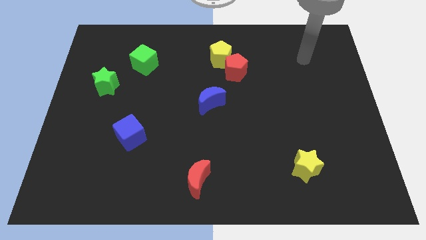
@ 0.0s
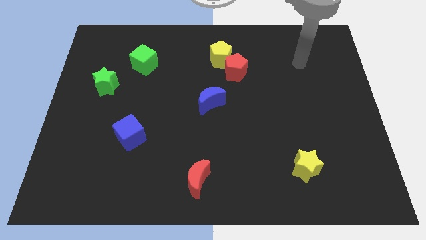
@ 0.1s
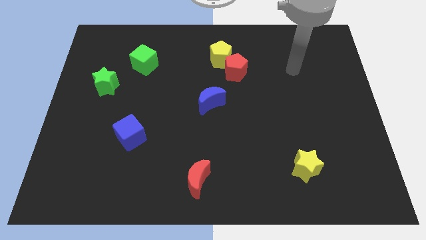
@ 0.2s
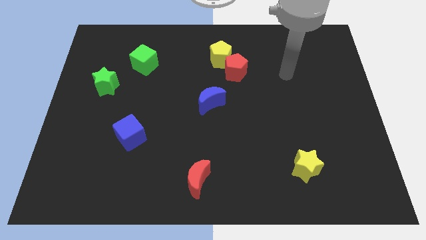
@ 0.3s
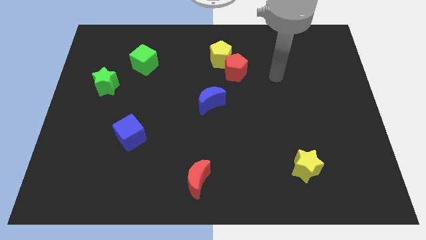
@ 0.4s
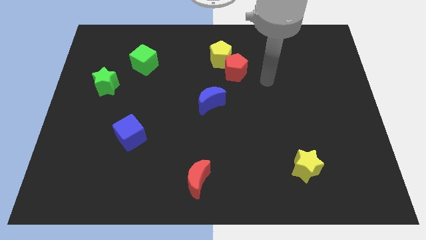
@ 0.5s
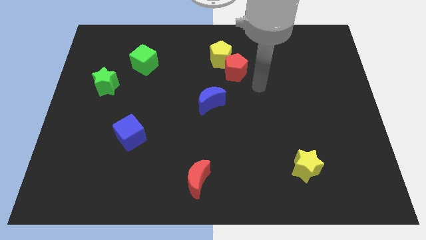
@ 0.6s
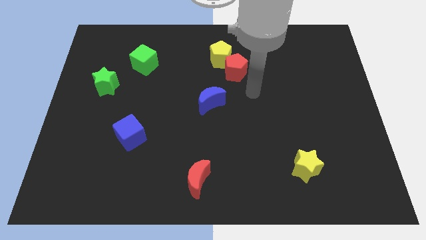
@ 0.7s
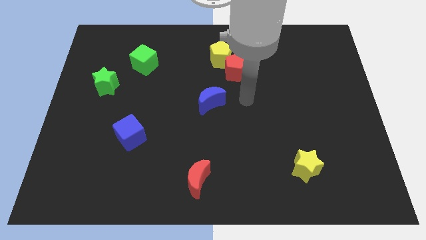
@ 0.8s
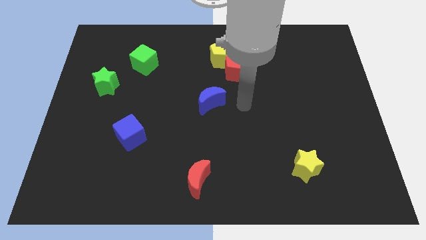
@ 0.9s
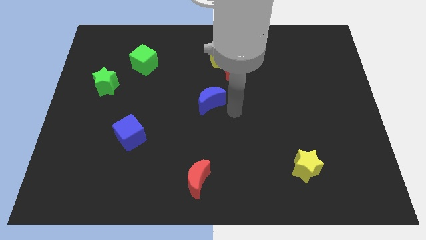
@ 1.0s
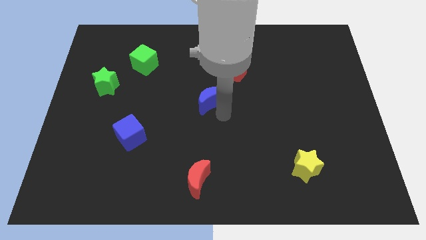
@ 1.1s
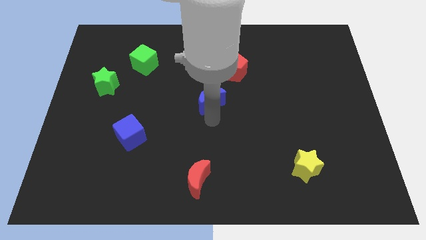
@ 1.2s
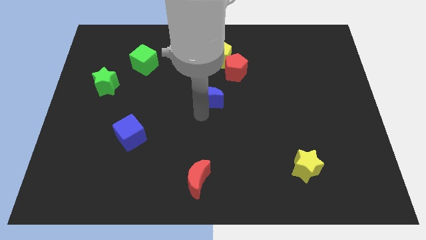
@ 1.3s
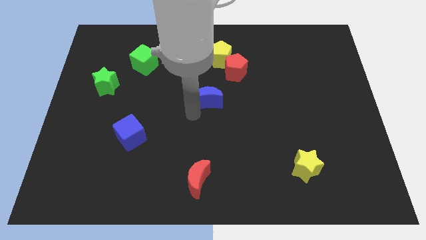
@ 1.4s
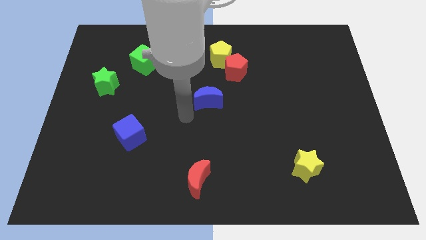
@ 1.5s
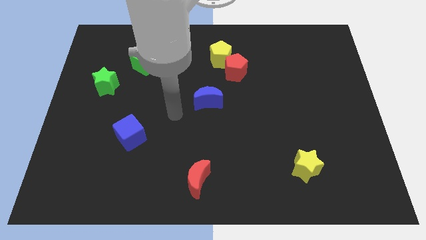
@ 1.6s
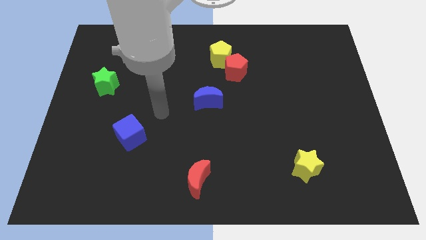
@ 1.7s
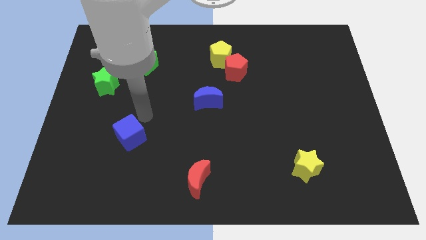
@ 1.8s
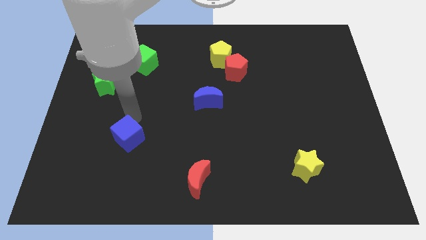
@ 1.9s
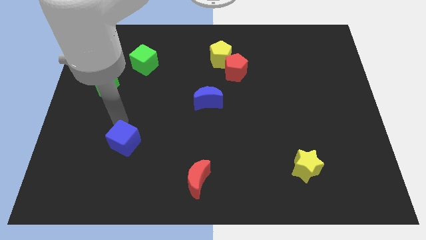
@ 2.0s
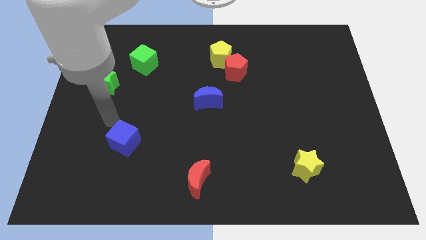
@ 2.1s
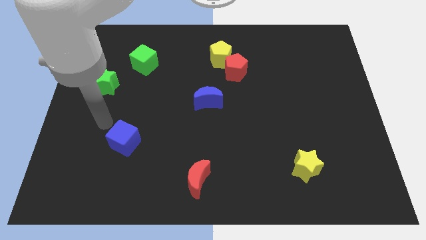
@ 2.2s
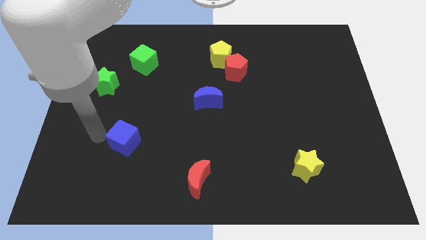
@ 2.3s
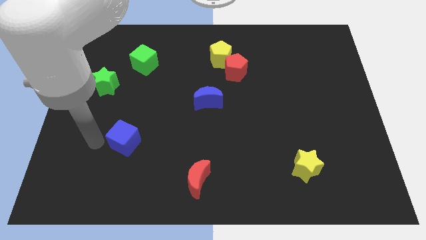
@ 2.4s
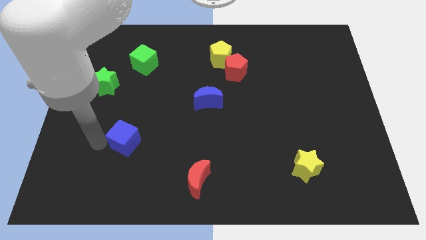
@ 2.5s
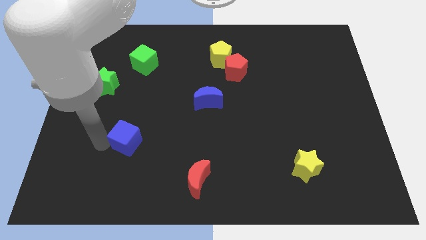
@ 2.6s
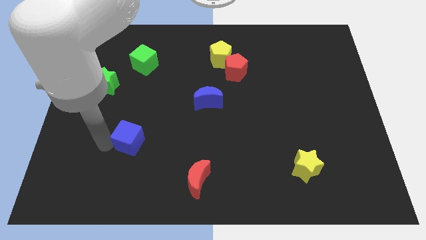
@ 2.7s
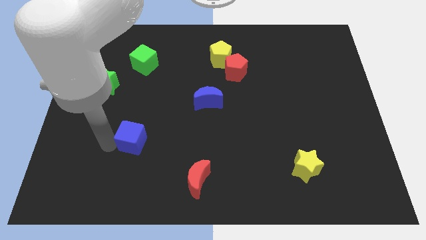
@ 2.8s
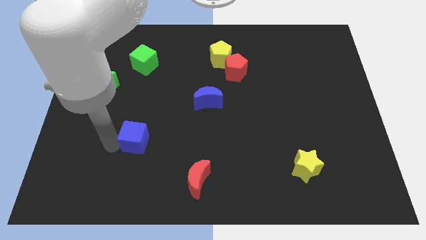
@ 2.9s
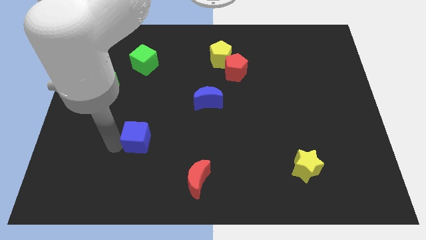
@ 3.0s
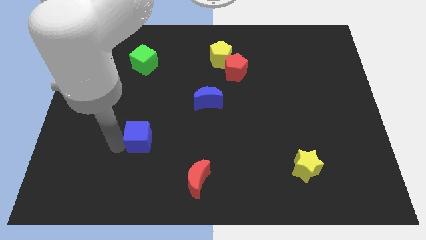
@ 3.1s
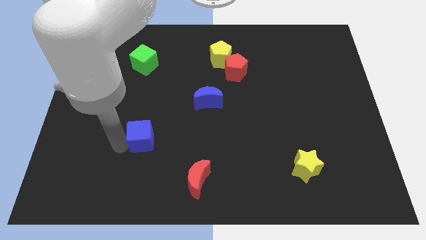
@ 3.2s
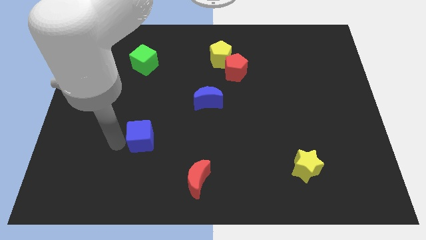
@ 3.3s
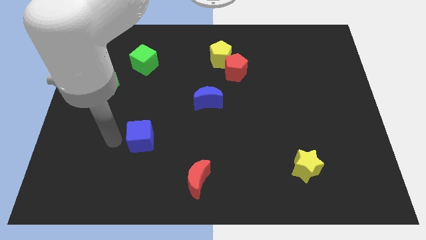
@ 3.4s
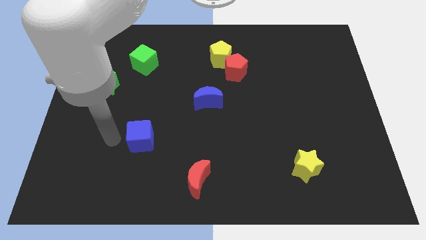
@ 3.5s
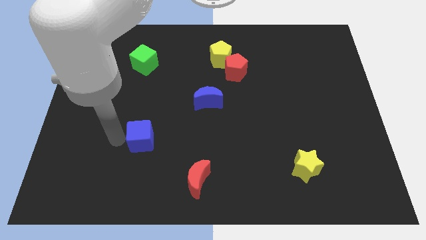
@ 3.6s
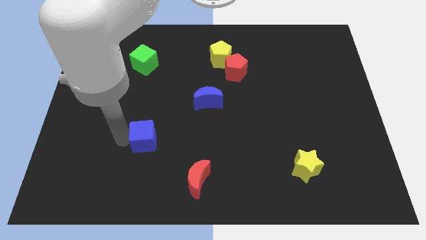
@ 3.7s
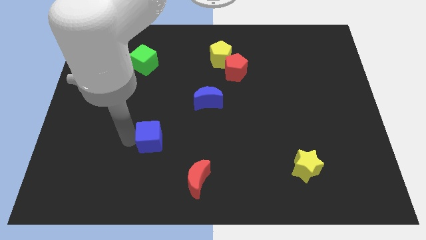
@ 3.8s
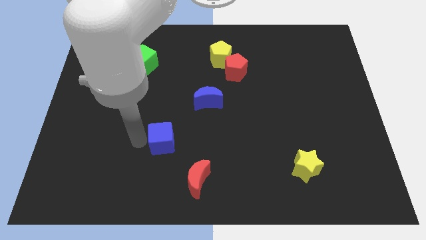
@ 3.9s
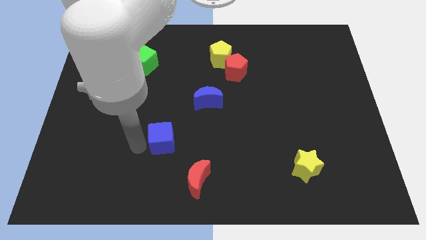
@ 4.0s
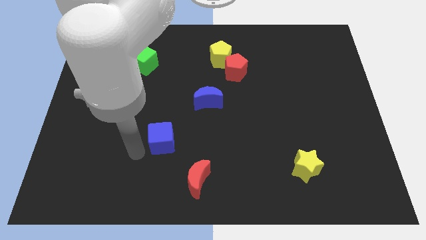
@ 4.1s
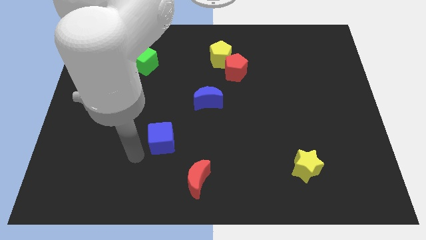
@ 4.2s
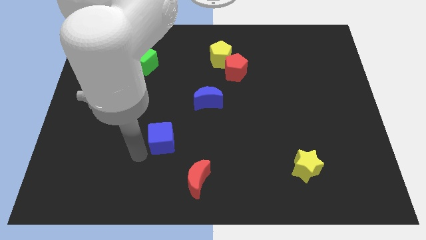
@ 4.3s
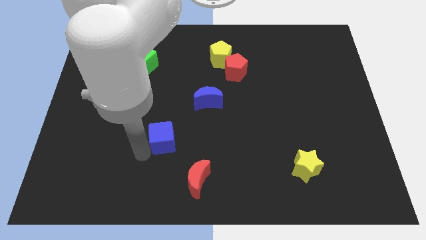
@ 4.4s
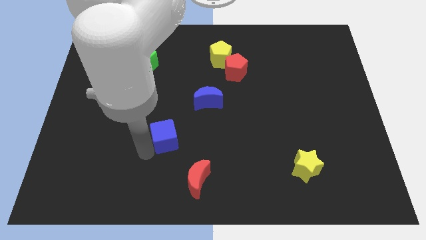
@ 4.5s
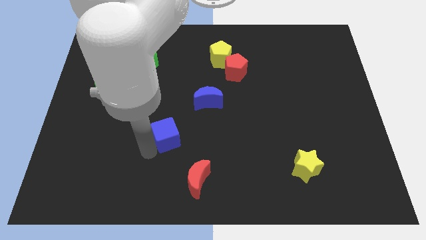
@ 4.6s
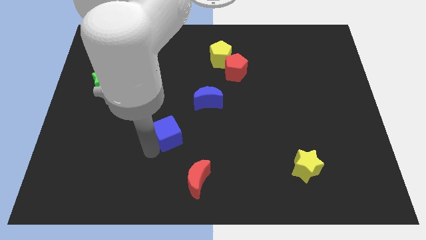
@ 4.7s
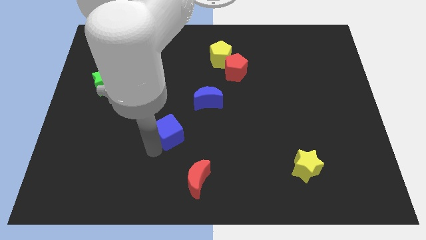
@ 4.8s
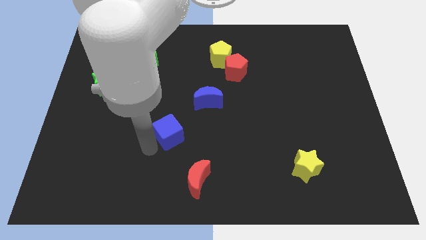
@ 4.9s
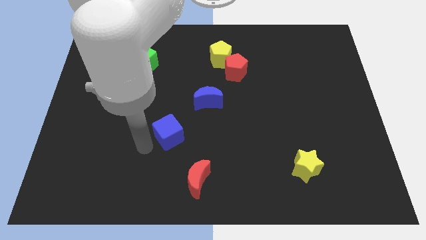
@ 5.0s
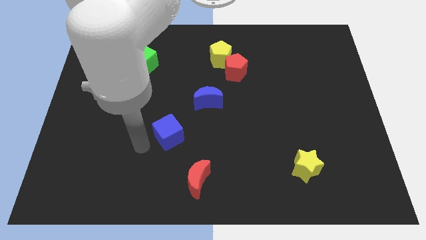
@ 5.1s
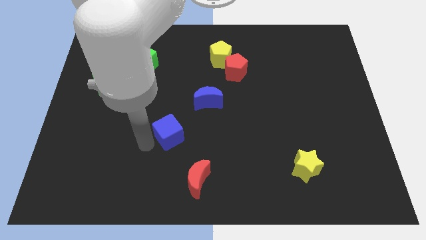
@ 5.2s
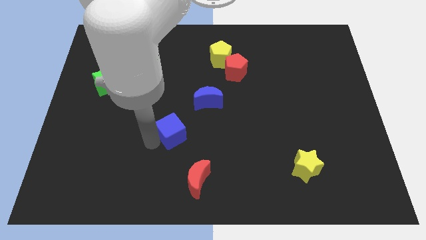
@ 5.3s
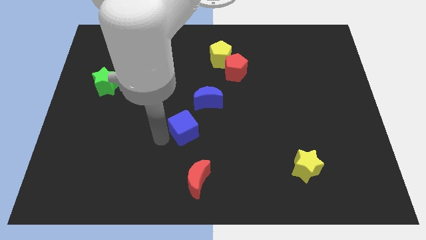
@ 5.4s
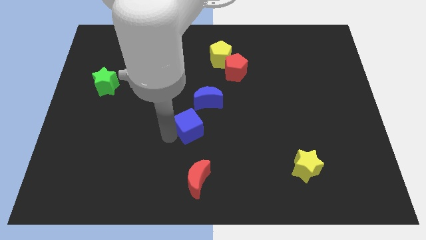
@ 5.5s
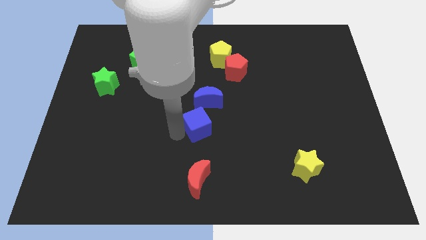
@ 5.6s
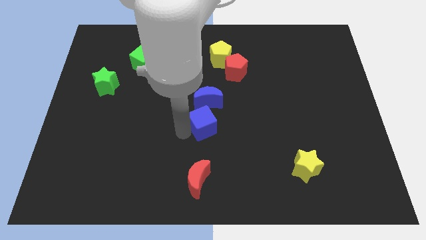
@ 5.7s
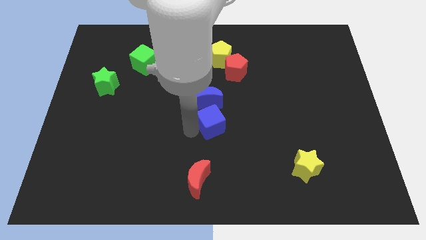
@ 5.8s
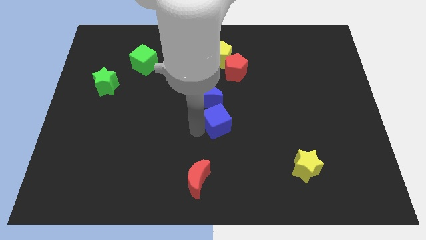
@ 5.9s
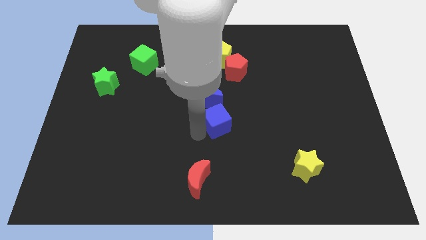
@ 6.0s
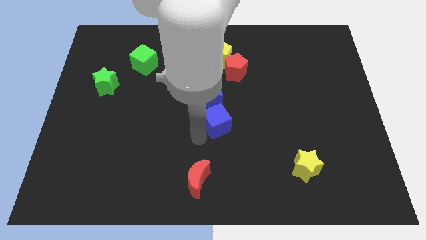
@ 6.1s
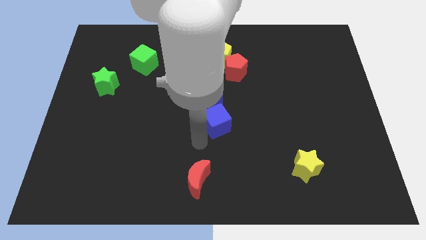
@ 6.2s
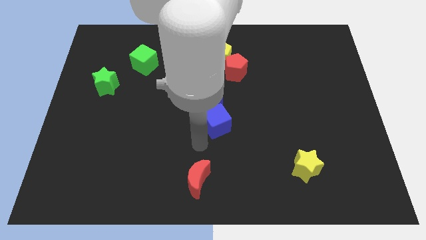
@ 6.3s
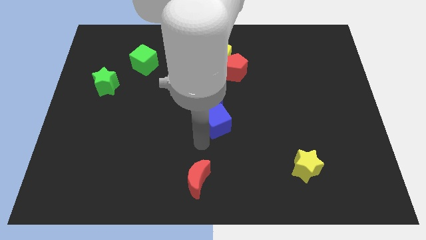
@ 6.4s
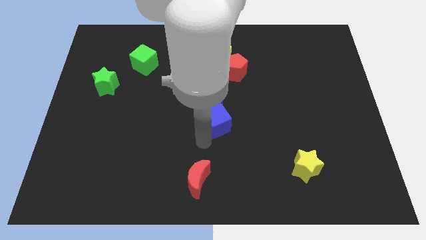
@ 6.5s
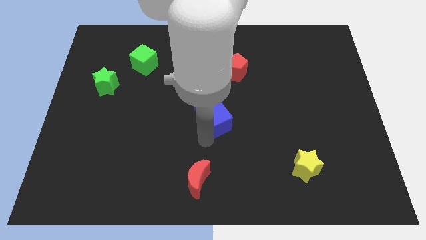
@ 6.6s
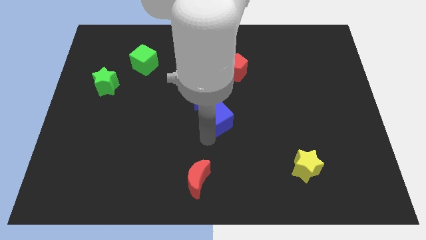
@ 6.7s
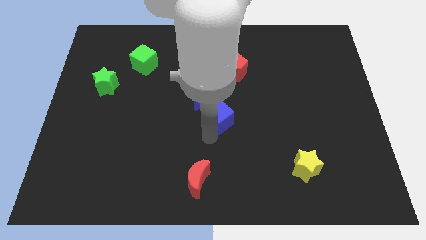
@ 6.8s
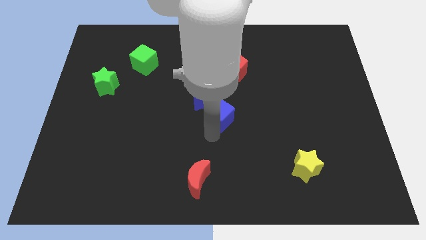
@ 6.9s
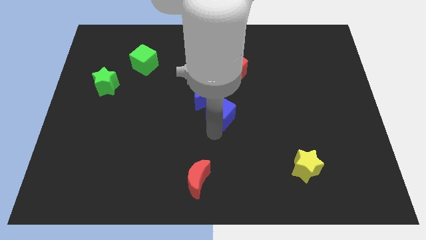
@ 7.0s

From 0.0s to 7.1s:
move the blue cube to the bottom of the red pentagon
